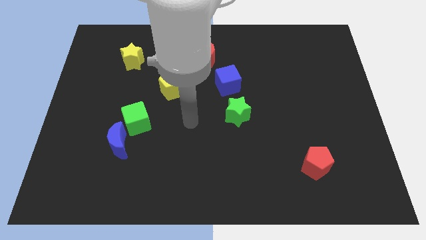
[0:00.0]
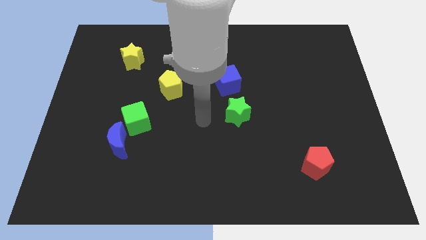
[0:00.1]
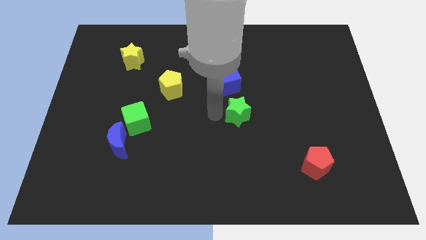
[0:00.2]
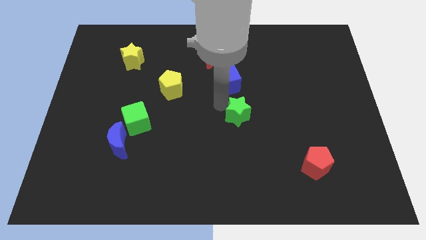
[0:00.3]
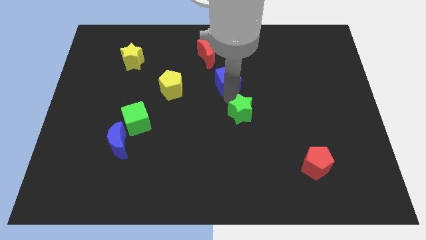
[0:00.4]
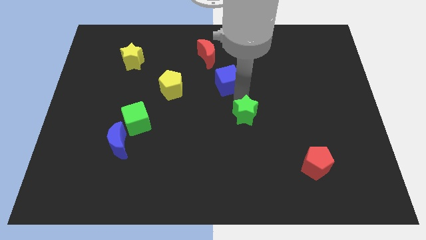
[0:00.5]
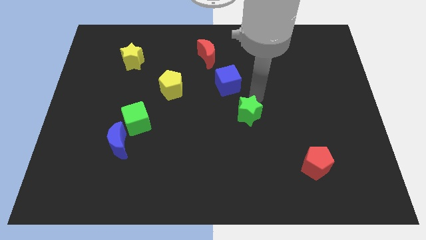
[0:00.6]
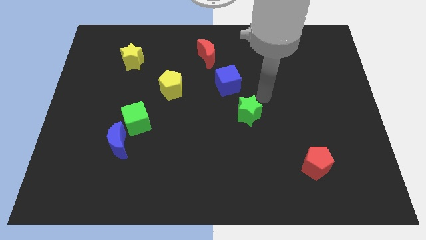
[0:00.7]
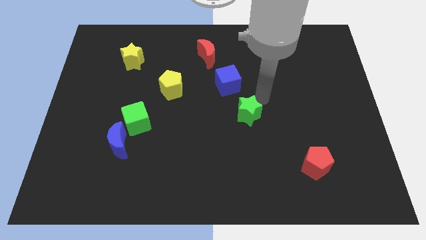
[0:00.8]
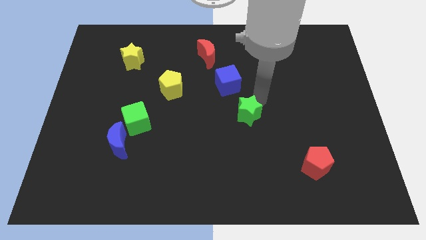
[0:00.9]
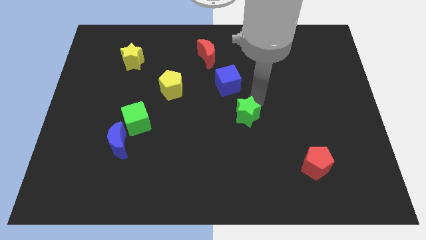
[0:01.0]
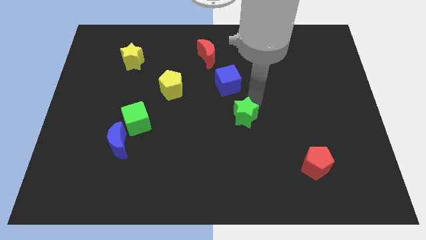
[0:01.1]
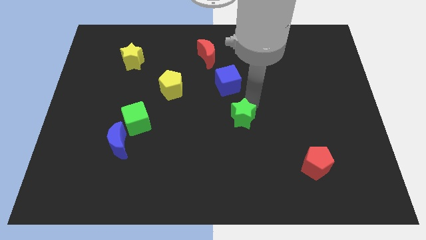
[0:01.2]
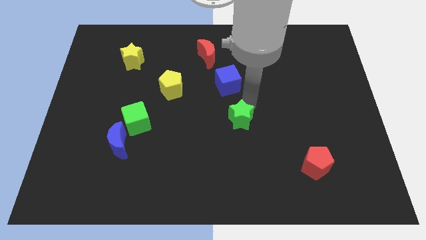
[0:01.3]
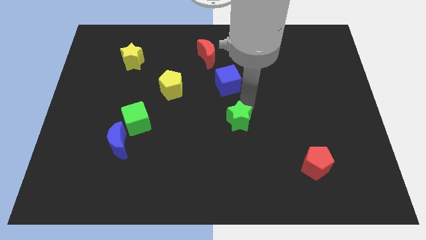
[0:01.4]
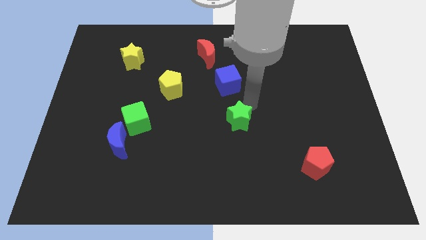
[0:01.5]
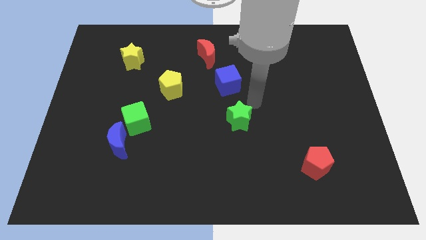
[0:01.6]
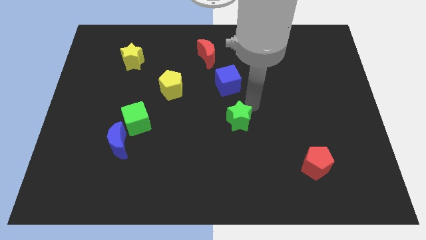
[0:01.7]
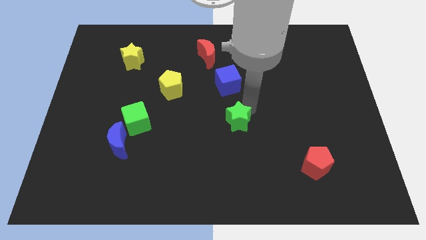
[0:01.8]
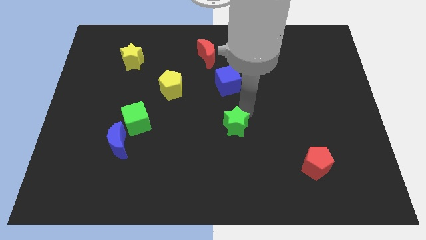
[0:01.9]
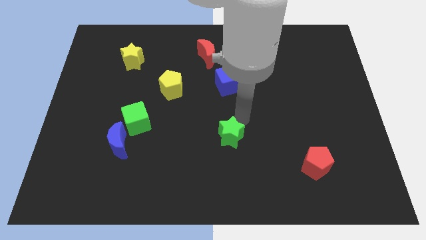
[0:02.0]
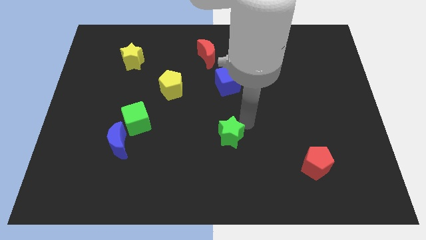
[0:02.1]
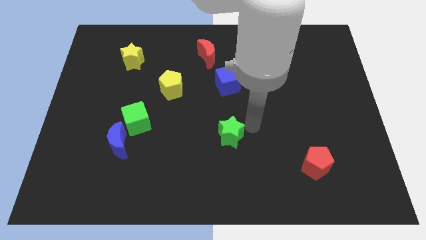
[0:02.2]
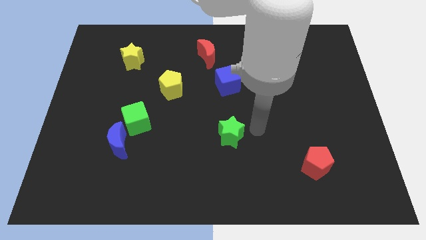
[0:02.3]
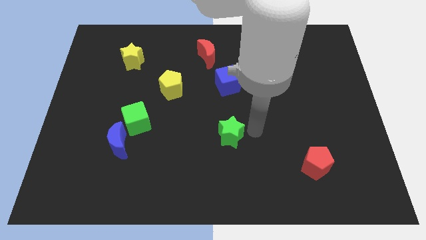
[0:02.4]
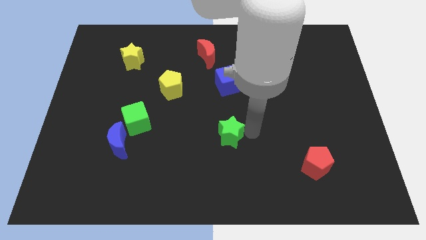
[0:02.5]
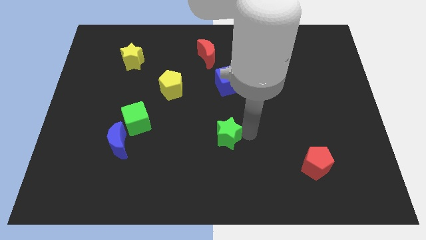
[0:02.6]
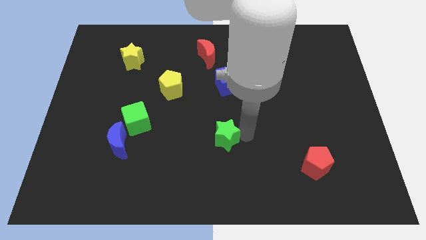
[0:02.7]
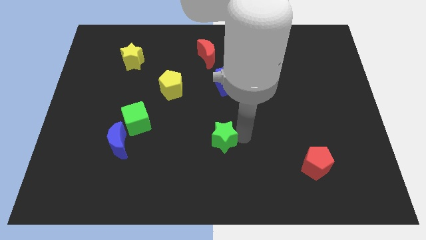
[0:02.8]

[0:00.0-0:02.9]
slightly move the green star down and to the left

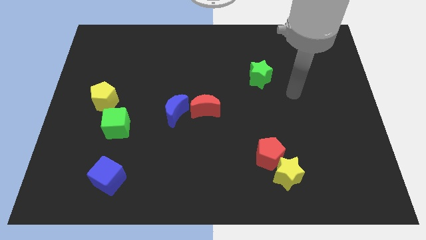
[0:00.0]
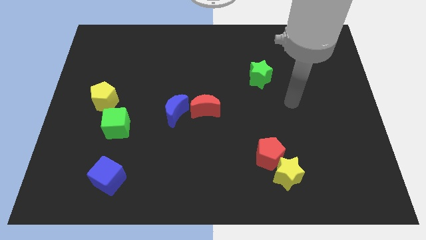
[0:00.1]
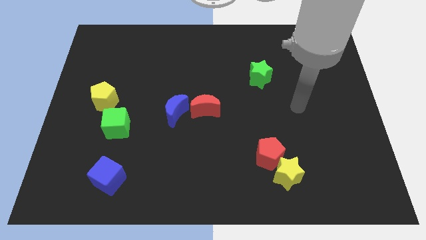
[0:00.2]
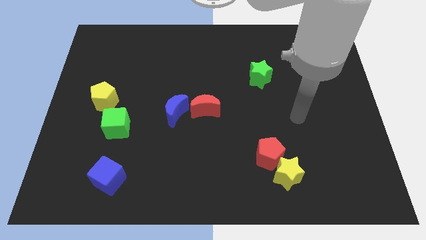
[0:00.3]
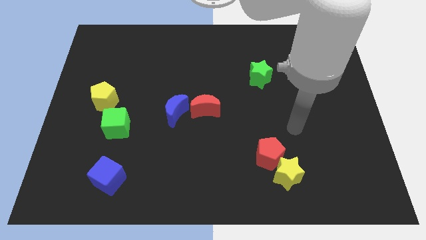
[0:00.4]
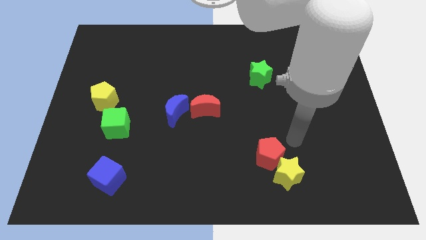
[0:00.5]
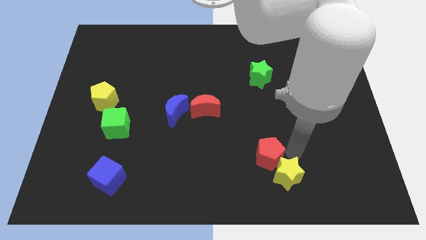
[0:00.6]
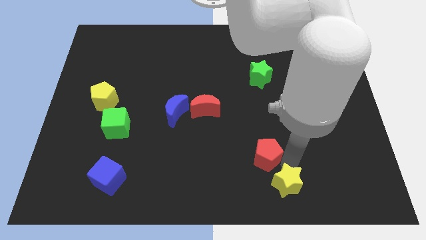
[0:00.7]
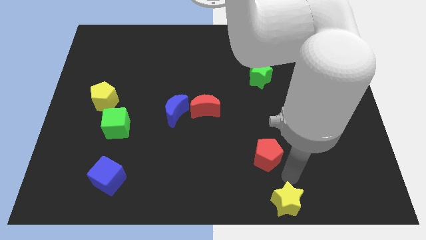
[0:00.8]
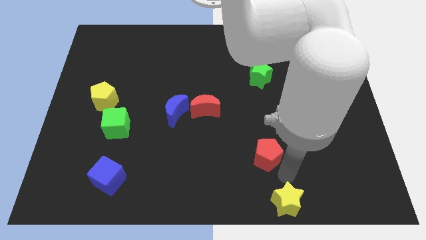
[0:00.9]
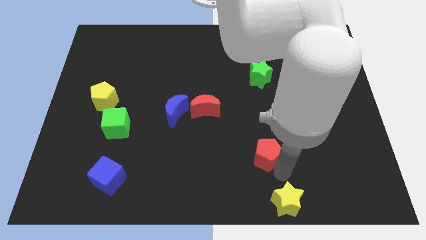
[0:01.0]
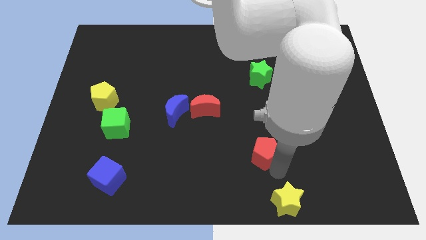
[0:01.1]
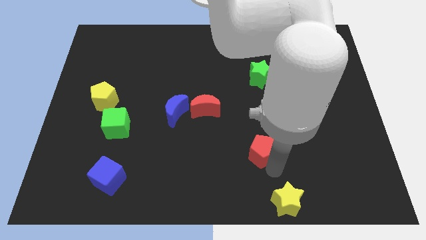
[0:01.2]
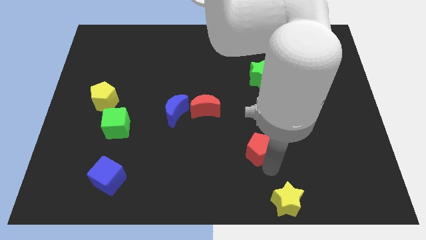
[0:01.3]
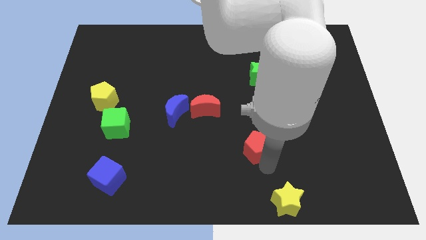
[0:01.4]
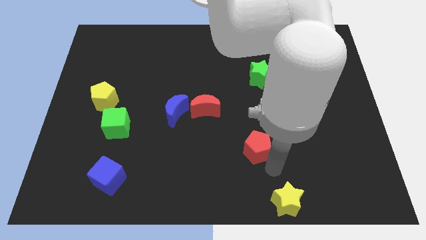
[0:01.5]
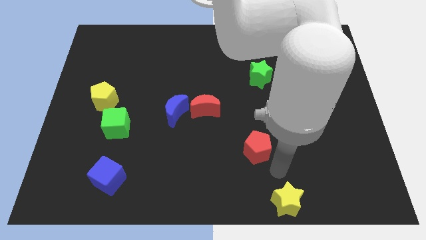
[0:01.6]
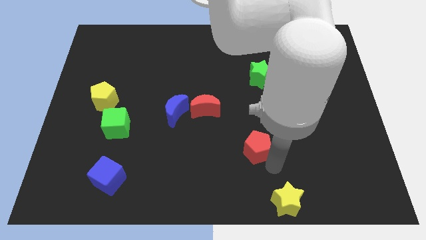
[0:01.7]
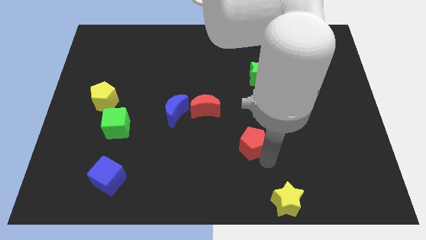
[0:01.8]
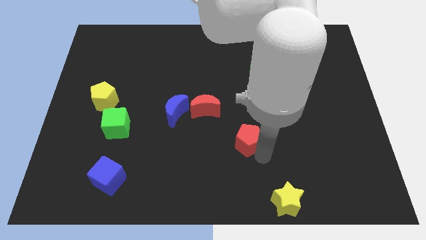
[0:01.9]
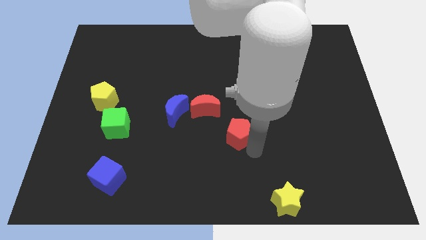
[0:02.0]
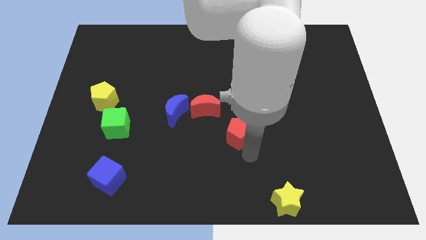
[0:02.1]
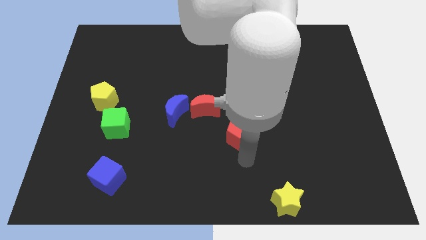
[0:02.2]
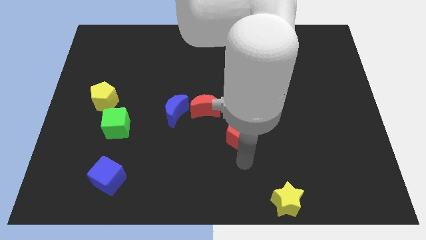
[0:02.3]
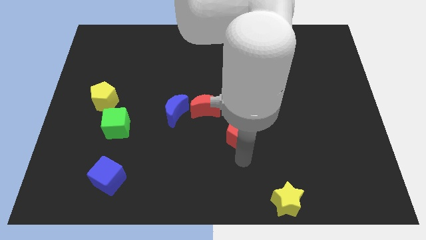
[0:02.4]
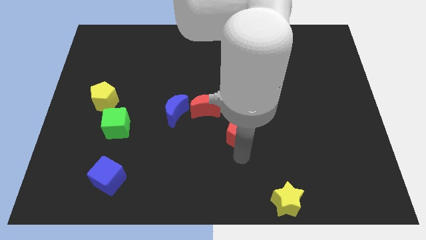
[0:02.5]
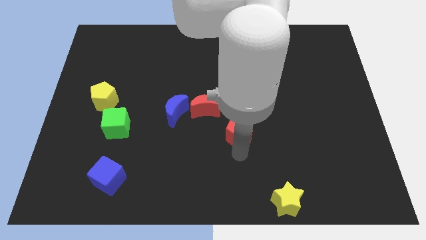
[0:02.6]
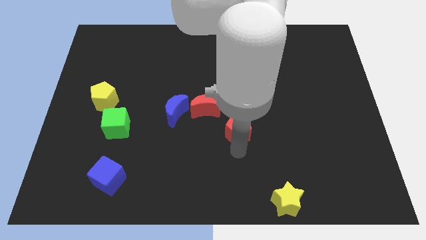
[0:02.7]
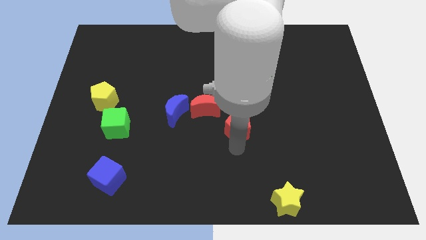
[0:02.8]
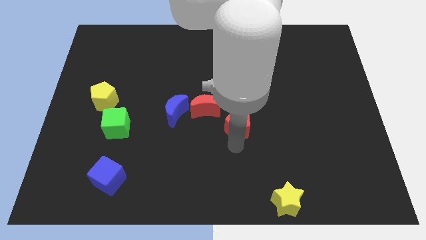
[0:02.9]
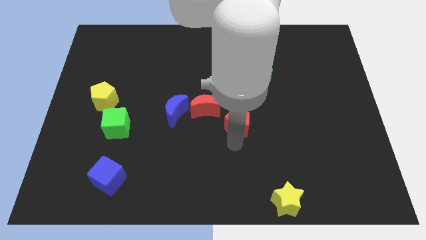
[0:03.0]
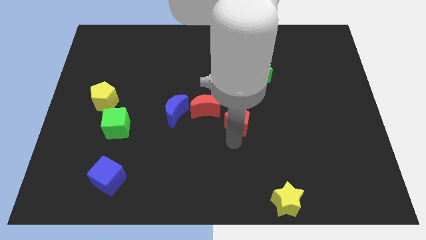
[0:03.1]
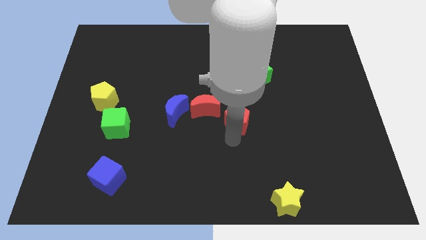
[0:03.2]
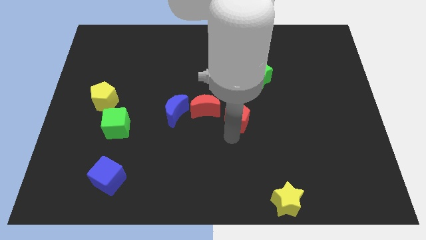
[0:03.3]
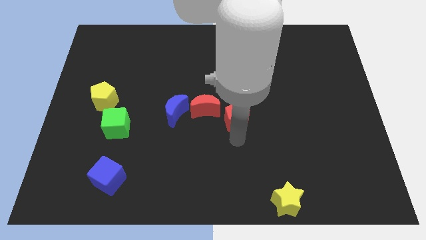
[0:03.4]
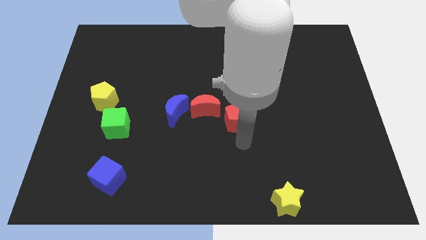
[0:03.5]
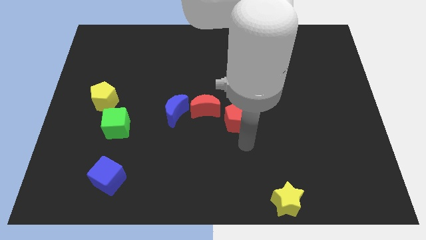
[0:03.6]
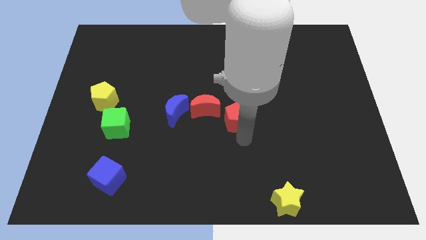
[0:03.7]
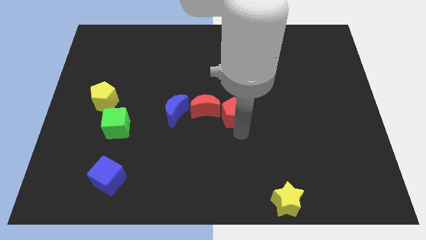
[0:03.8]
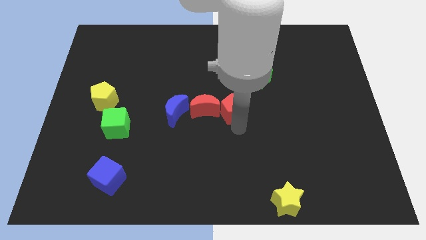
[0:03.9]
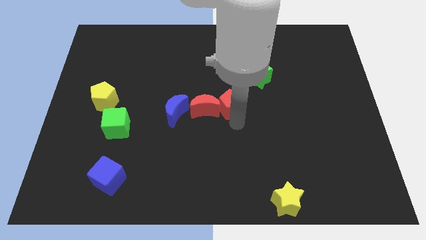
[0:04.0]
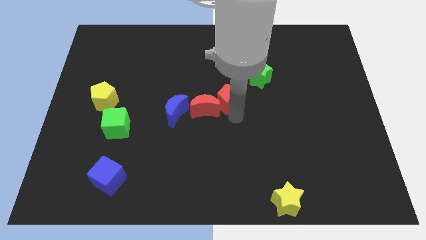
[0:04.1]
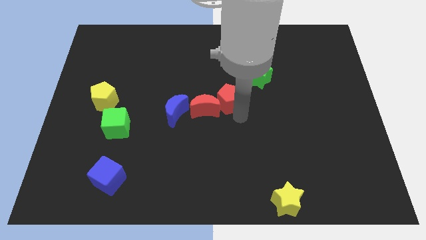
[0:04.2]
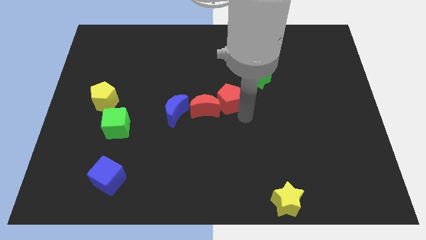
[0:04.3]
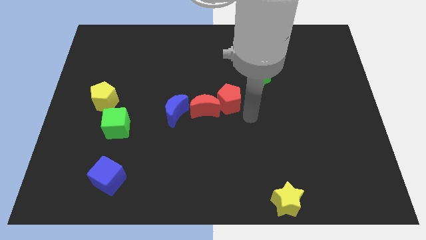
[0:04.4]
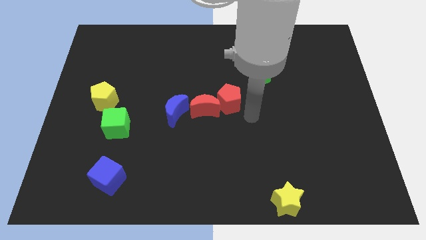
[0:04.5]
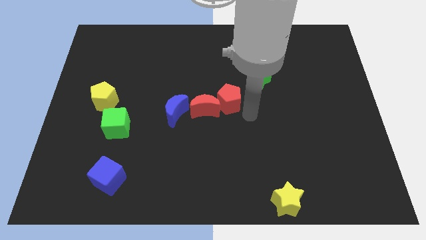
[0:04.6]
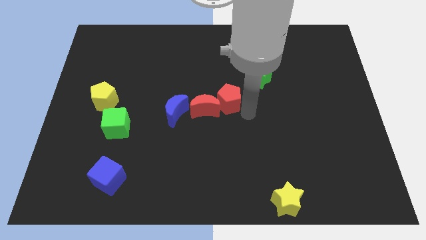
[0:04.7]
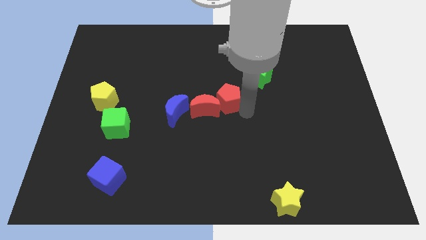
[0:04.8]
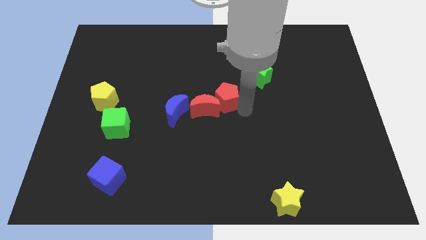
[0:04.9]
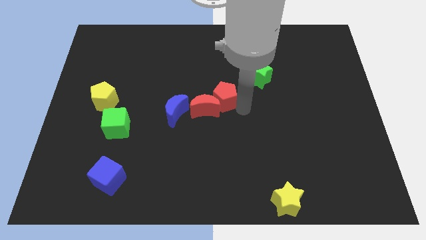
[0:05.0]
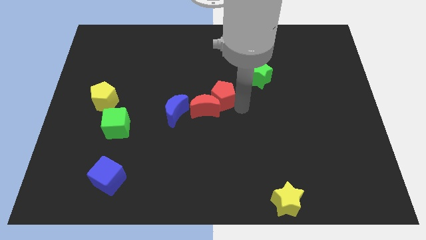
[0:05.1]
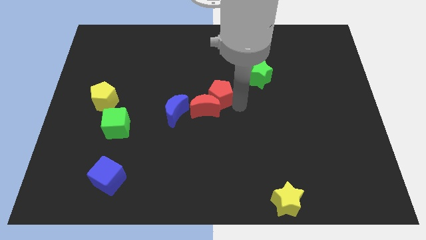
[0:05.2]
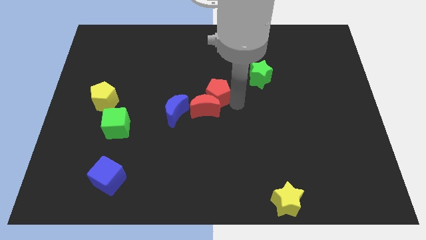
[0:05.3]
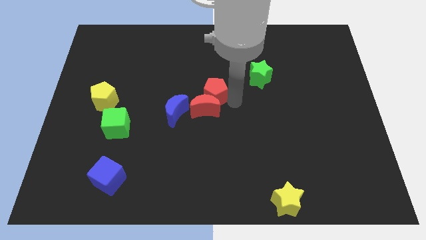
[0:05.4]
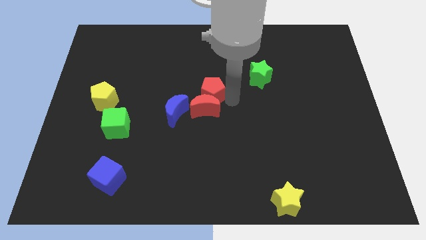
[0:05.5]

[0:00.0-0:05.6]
move the red pentagon diagonally upwards and left

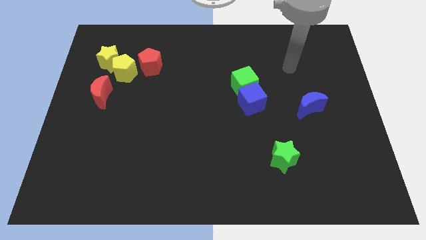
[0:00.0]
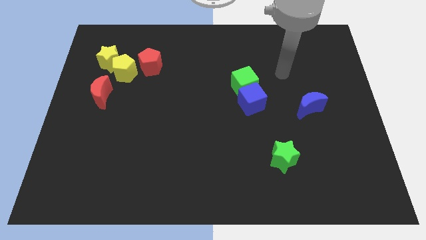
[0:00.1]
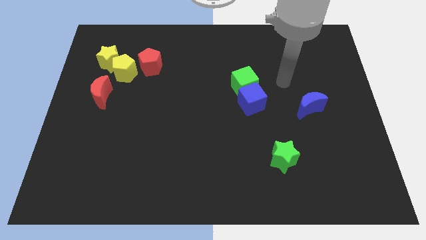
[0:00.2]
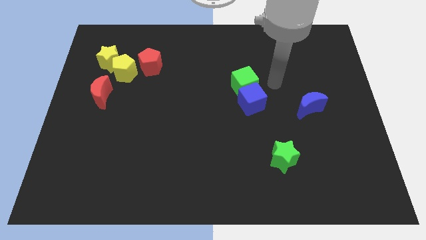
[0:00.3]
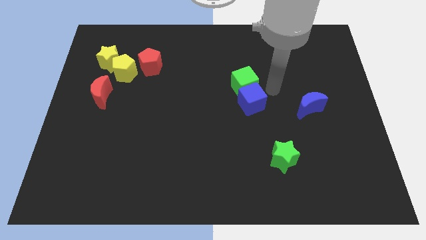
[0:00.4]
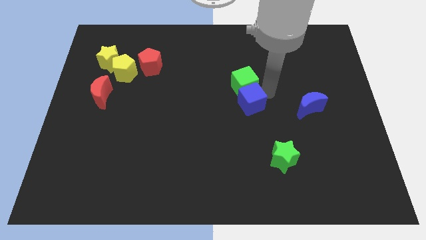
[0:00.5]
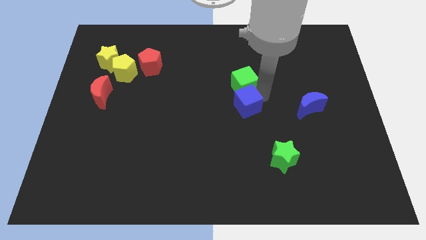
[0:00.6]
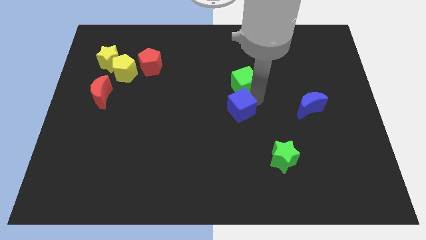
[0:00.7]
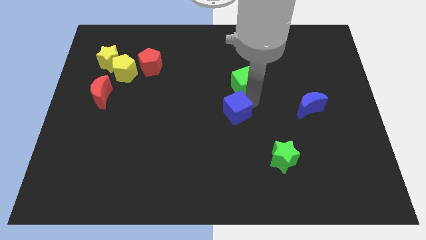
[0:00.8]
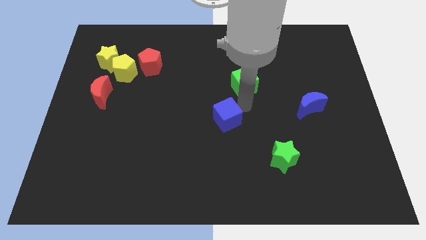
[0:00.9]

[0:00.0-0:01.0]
push the blue cube somewhat down and left diagonally
